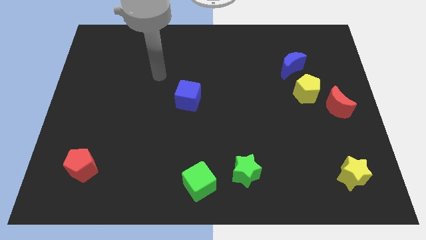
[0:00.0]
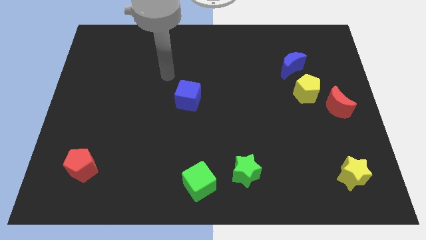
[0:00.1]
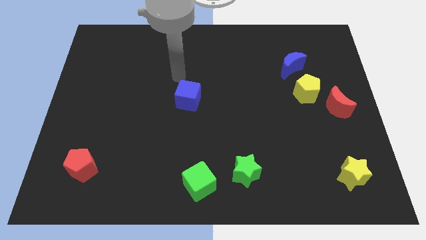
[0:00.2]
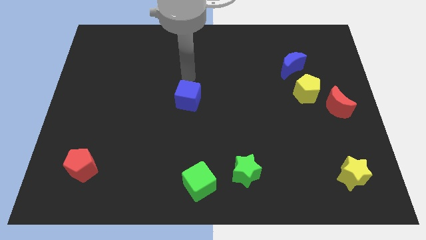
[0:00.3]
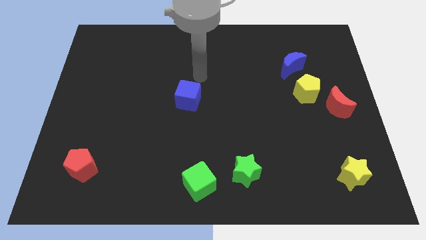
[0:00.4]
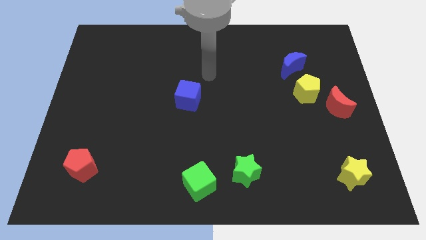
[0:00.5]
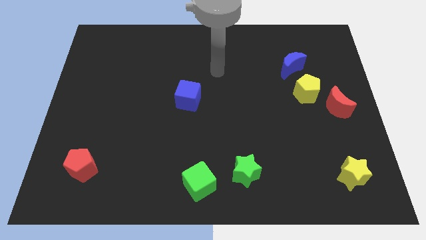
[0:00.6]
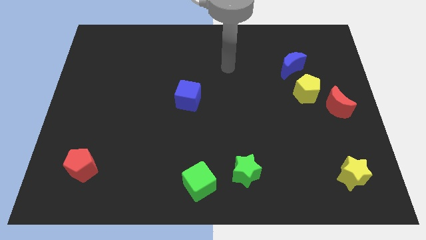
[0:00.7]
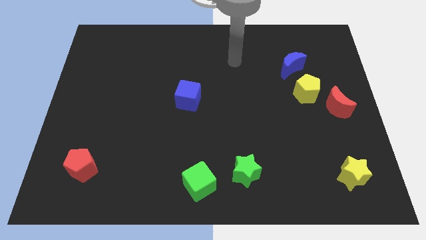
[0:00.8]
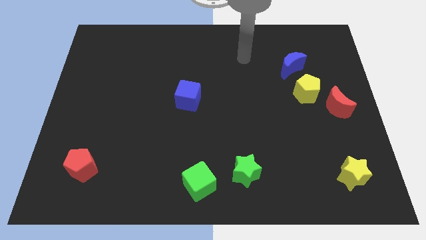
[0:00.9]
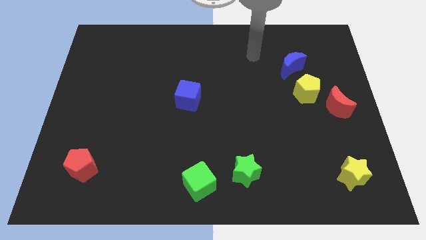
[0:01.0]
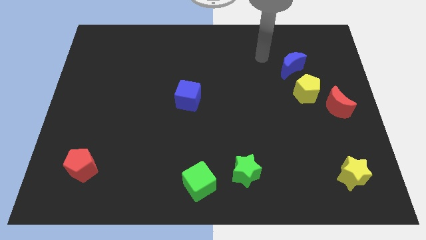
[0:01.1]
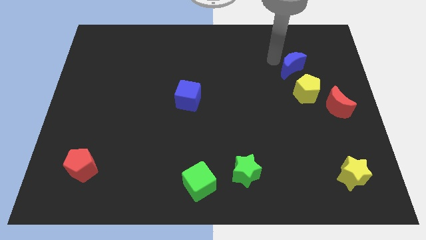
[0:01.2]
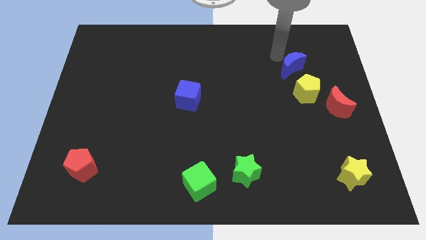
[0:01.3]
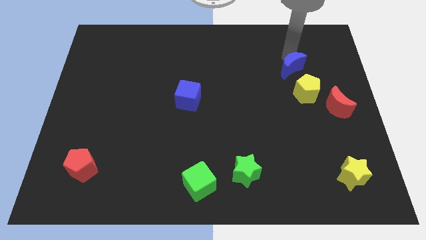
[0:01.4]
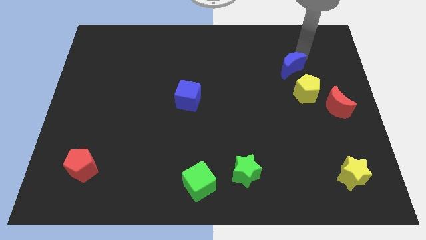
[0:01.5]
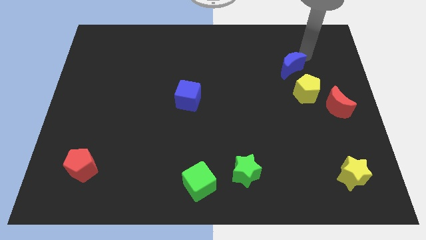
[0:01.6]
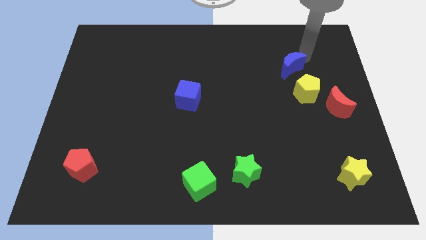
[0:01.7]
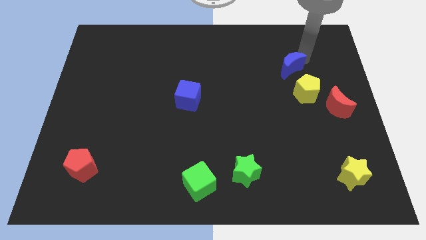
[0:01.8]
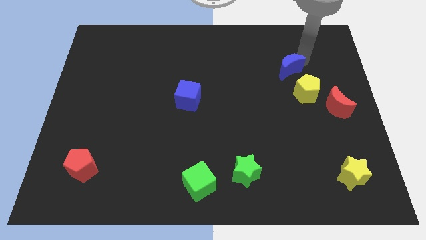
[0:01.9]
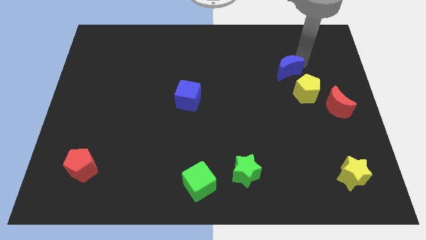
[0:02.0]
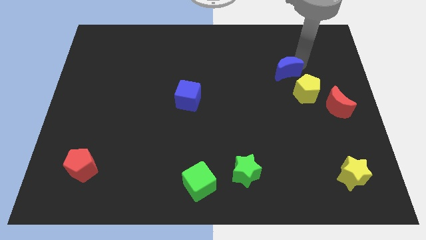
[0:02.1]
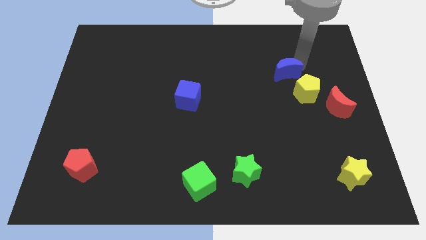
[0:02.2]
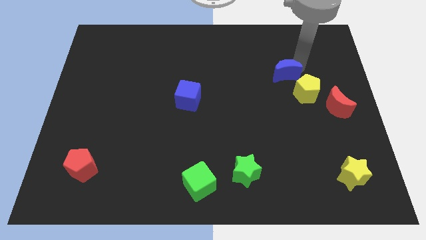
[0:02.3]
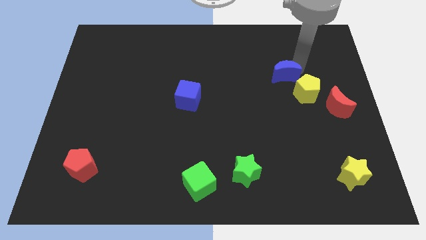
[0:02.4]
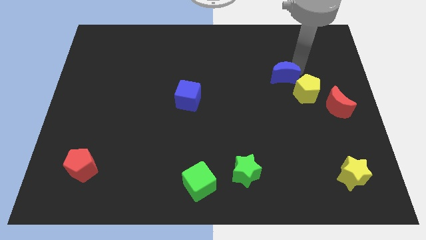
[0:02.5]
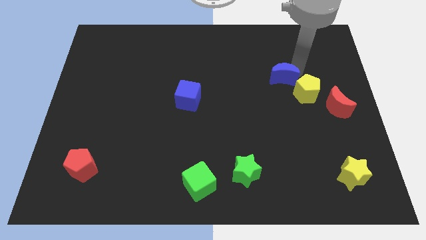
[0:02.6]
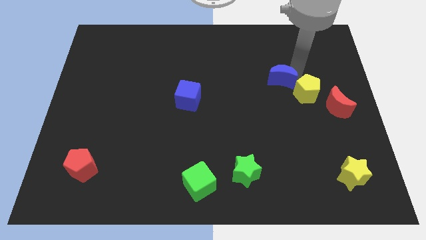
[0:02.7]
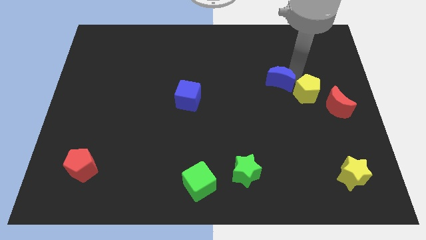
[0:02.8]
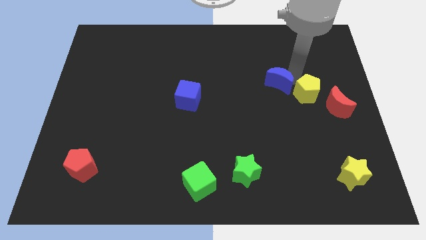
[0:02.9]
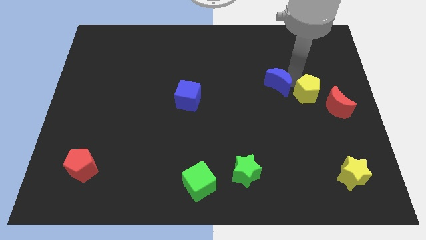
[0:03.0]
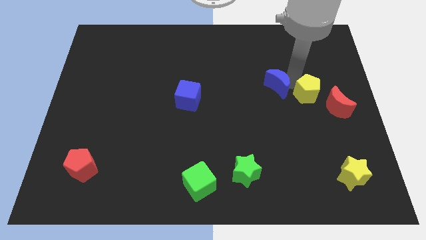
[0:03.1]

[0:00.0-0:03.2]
slide the blue moon slightly diagonally down and to the left

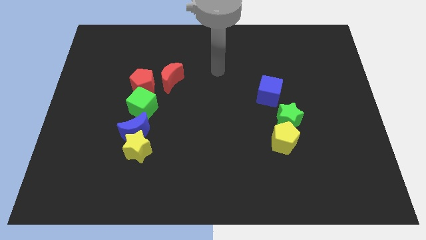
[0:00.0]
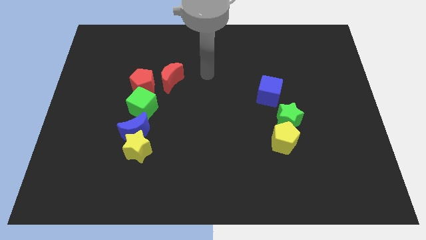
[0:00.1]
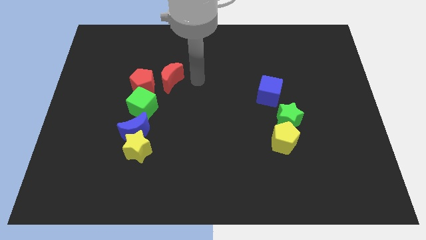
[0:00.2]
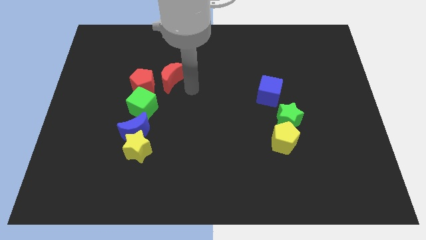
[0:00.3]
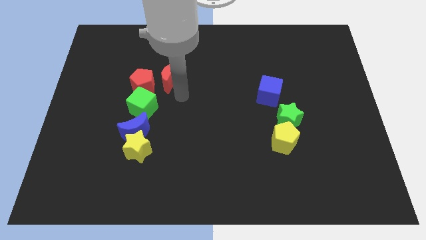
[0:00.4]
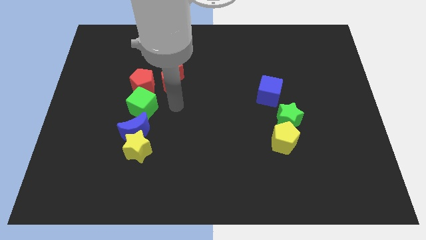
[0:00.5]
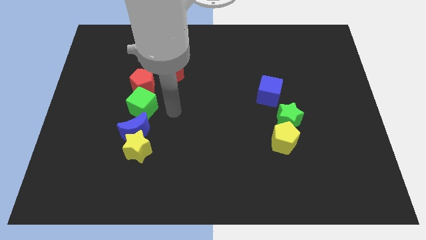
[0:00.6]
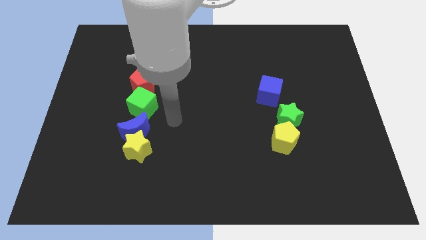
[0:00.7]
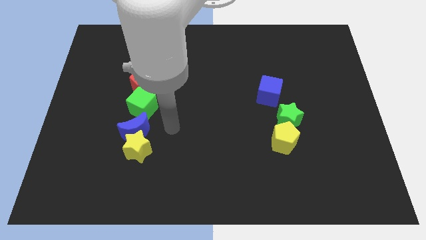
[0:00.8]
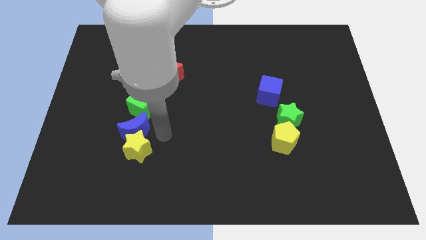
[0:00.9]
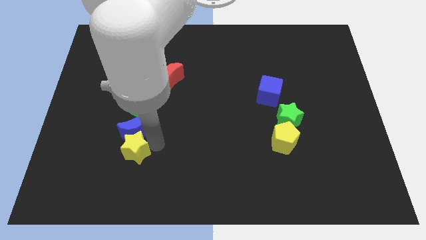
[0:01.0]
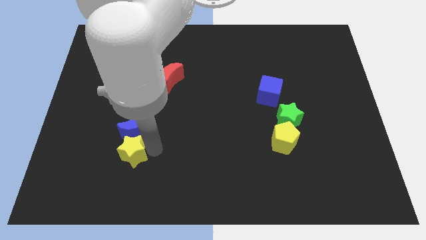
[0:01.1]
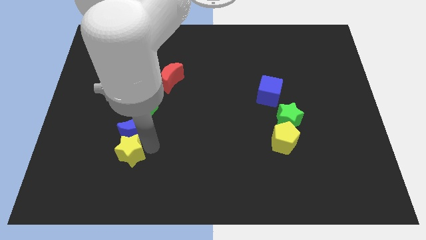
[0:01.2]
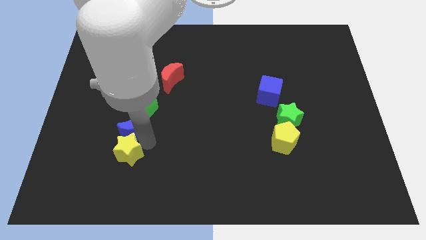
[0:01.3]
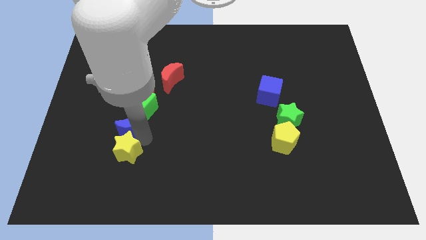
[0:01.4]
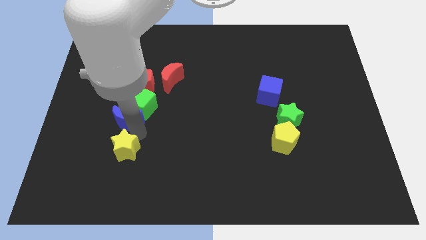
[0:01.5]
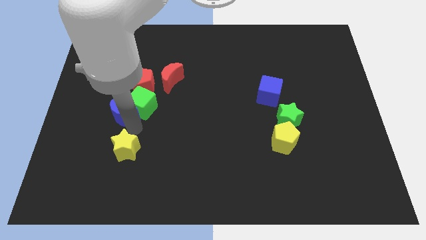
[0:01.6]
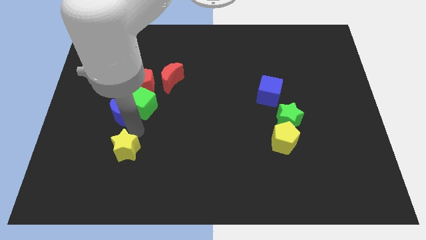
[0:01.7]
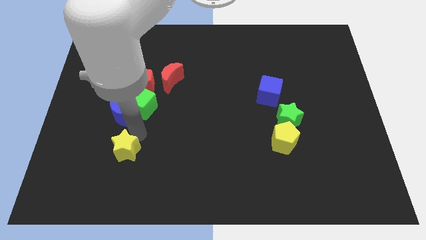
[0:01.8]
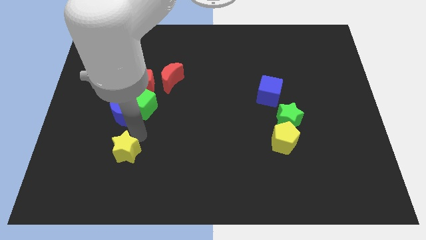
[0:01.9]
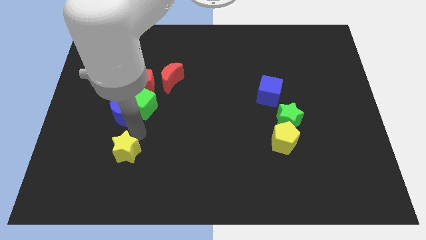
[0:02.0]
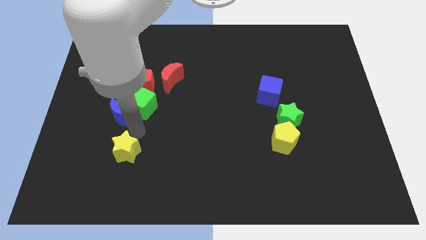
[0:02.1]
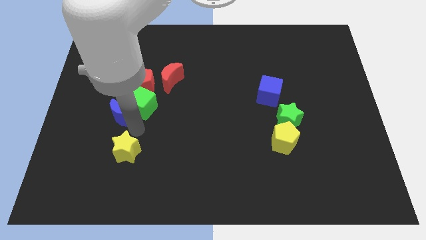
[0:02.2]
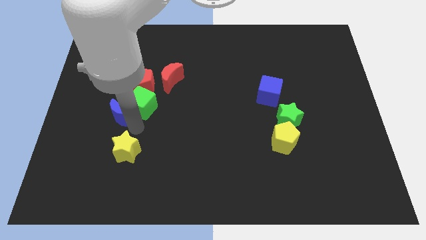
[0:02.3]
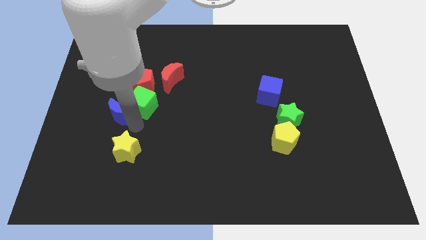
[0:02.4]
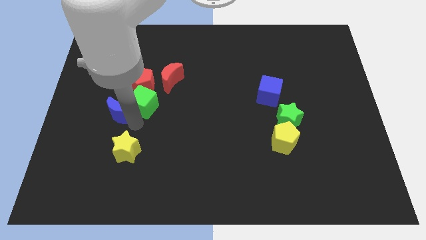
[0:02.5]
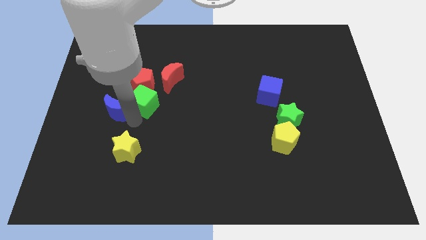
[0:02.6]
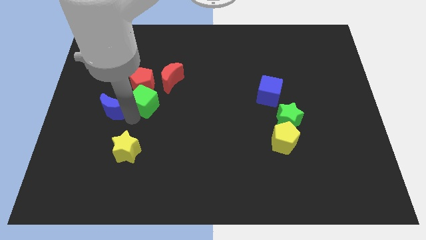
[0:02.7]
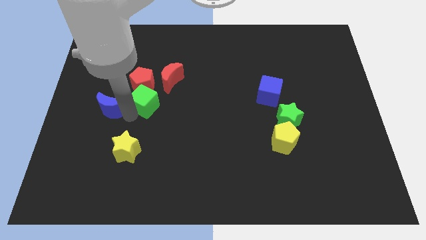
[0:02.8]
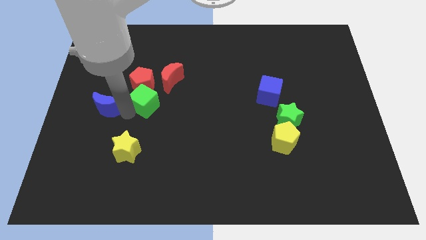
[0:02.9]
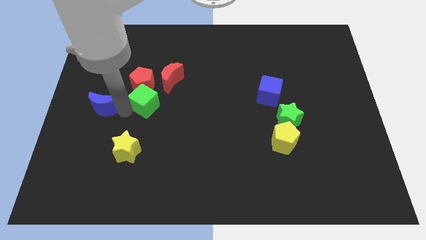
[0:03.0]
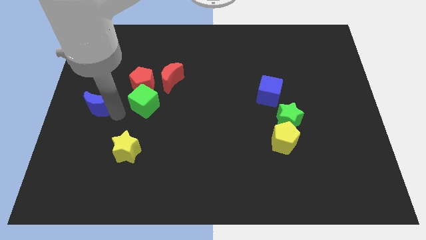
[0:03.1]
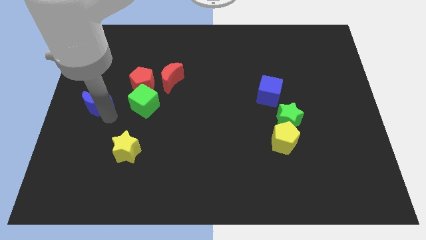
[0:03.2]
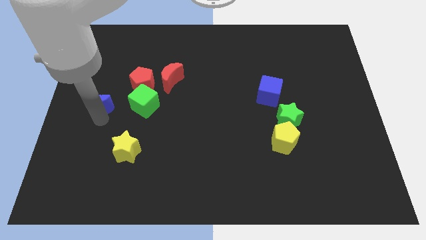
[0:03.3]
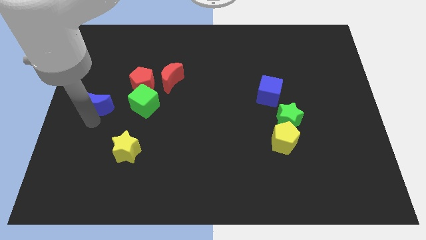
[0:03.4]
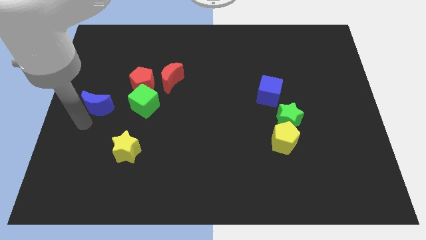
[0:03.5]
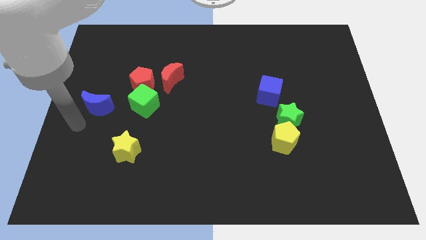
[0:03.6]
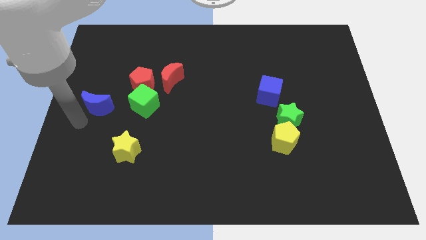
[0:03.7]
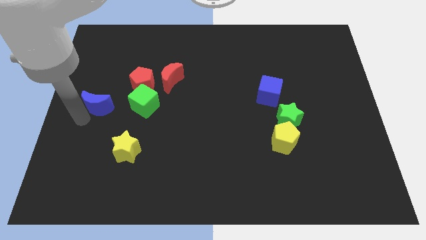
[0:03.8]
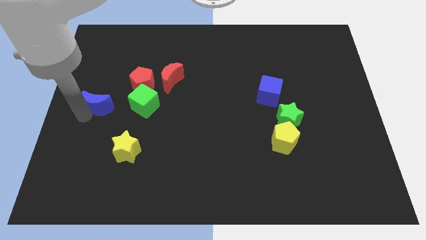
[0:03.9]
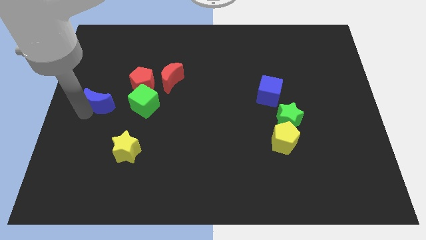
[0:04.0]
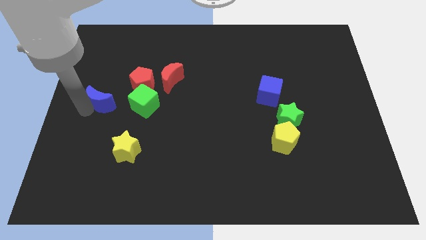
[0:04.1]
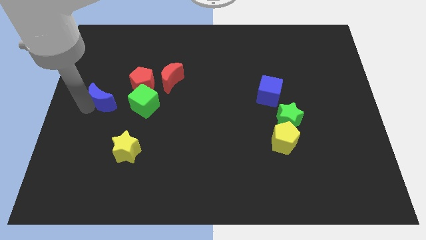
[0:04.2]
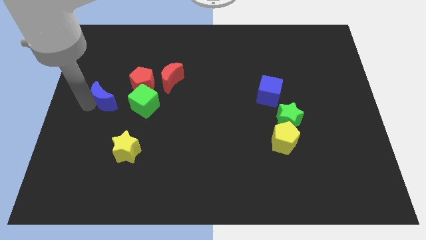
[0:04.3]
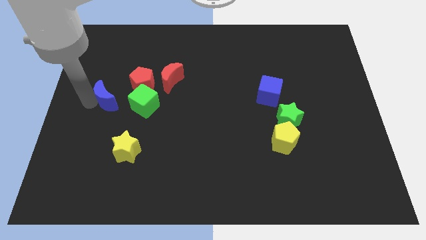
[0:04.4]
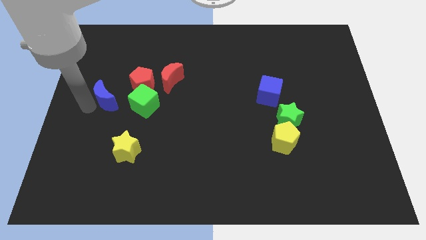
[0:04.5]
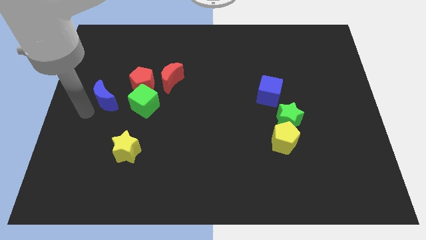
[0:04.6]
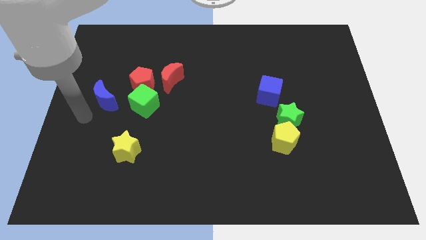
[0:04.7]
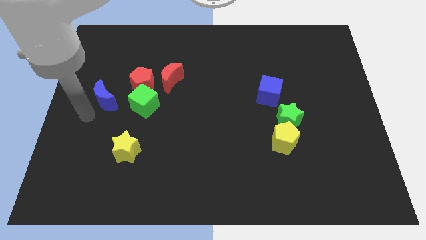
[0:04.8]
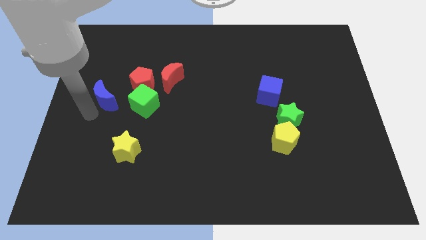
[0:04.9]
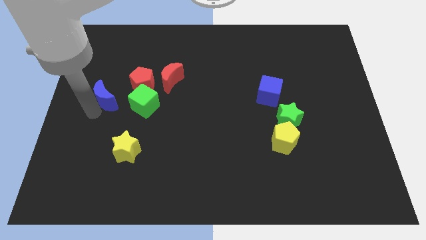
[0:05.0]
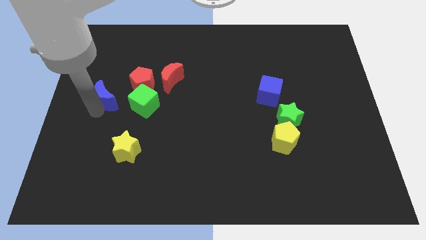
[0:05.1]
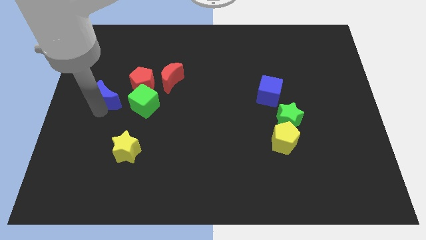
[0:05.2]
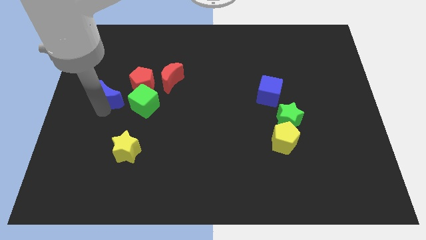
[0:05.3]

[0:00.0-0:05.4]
move the blue moon slightly up
